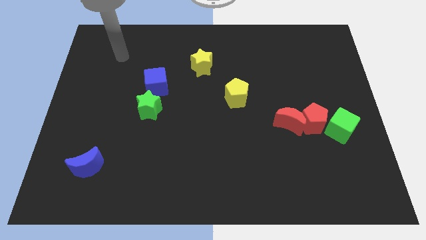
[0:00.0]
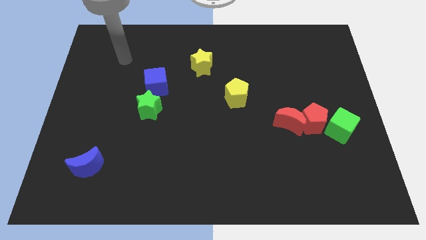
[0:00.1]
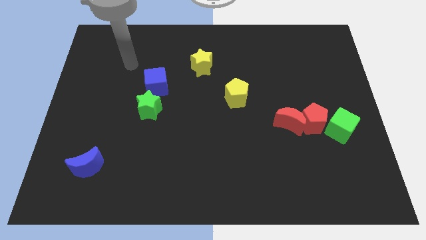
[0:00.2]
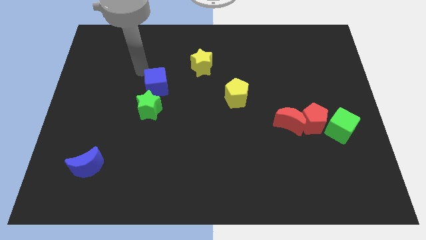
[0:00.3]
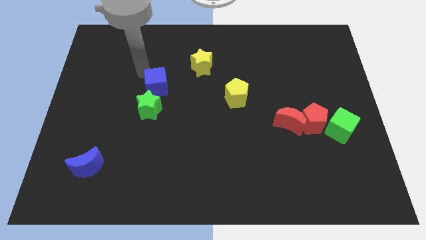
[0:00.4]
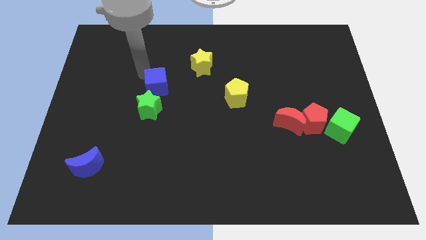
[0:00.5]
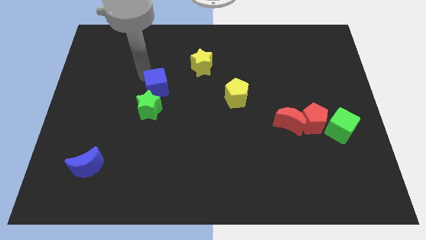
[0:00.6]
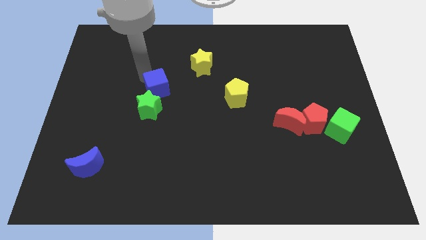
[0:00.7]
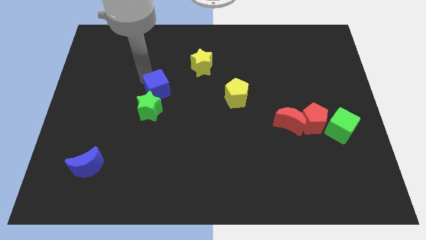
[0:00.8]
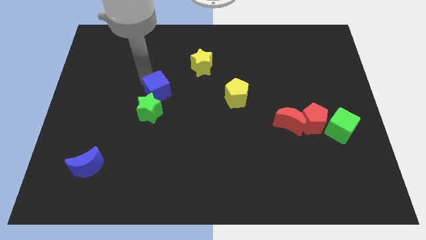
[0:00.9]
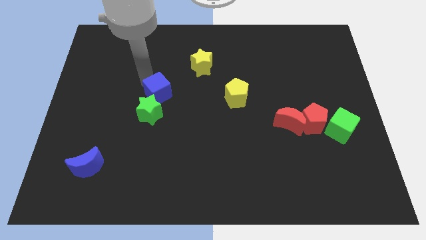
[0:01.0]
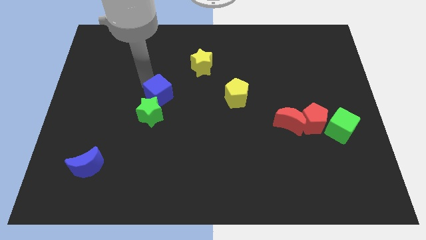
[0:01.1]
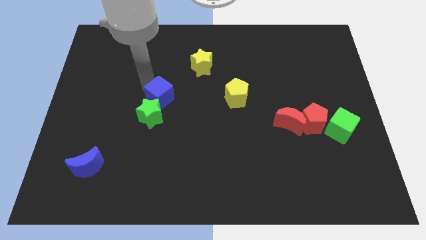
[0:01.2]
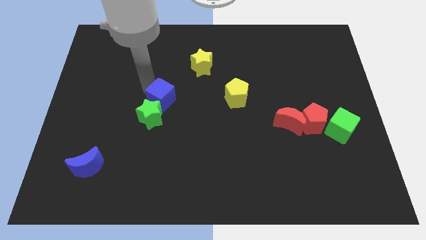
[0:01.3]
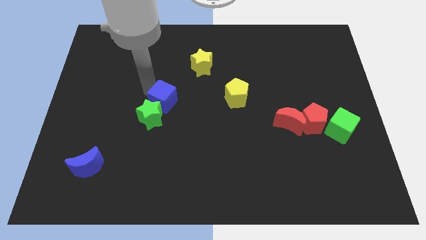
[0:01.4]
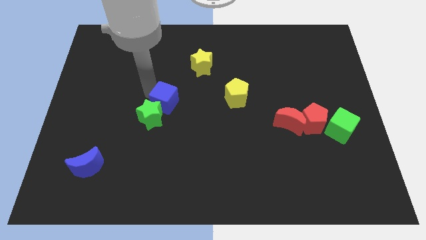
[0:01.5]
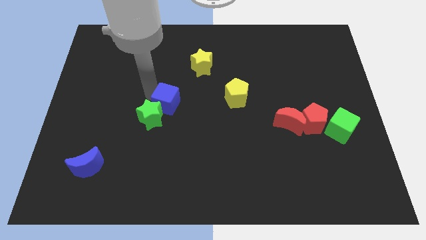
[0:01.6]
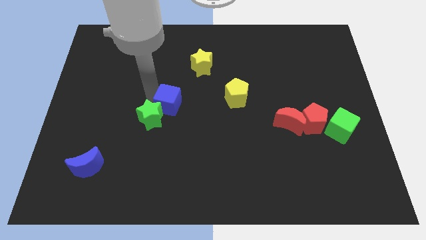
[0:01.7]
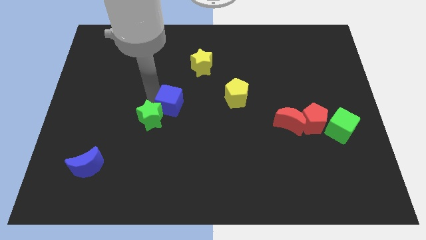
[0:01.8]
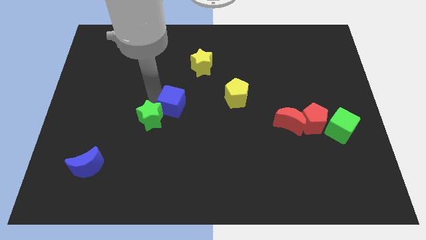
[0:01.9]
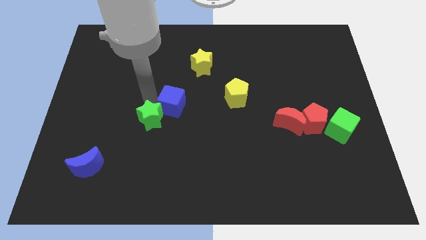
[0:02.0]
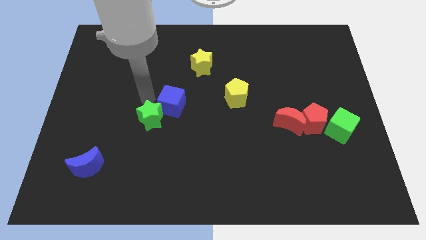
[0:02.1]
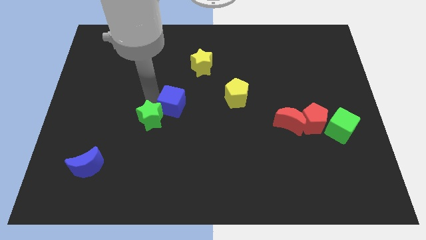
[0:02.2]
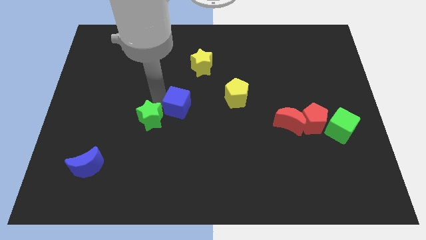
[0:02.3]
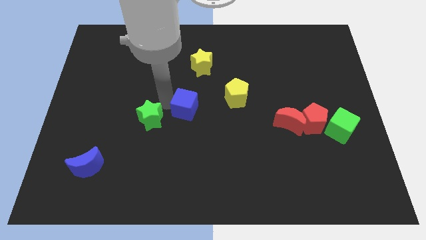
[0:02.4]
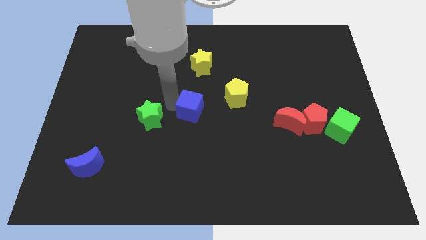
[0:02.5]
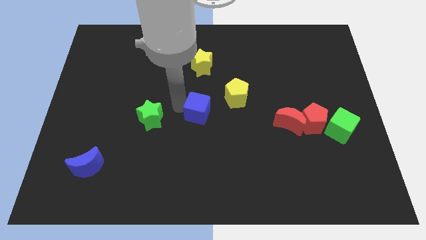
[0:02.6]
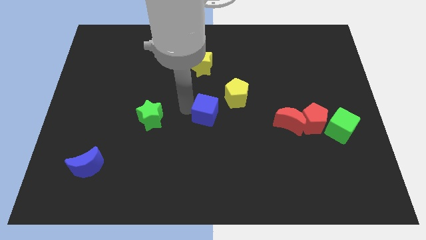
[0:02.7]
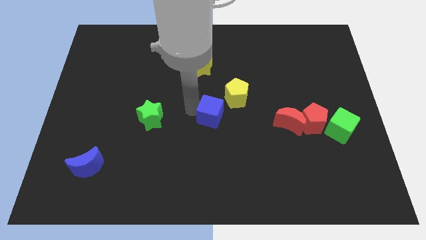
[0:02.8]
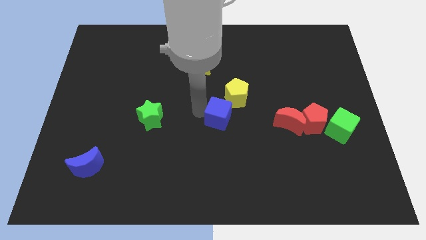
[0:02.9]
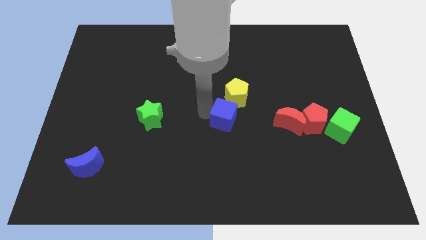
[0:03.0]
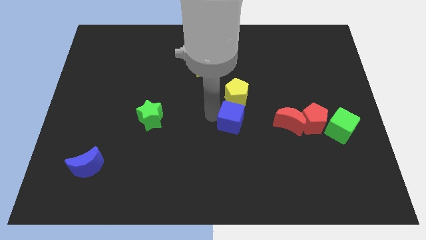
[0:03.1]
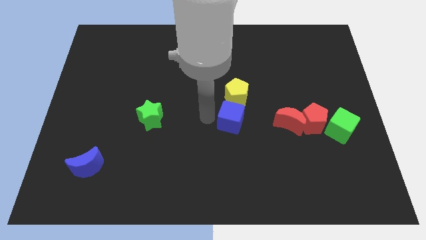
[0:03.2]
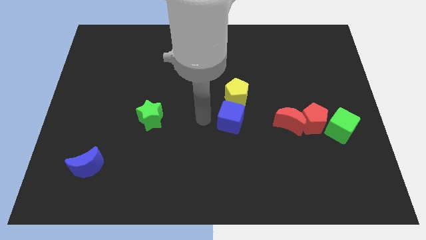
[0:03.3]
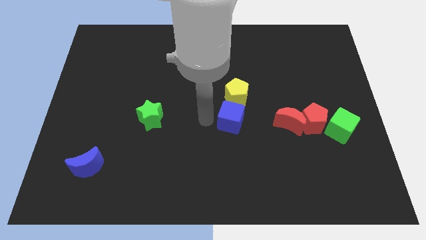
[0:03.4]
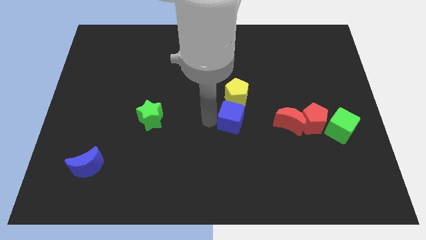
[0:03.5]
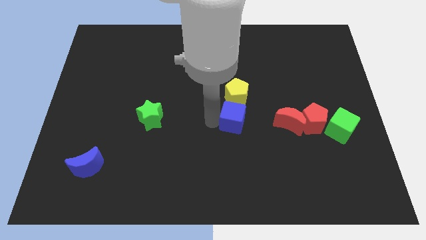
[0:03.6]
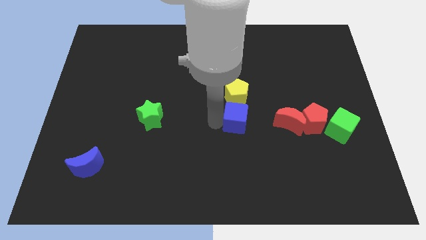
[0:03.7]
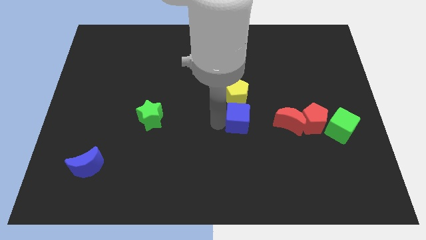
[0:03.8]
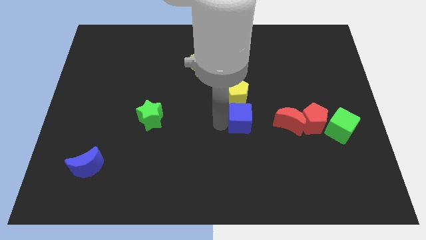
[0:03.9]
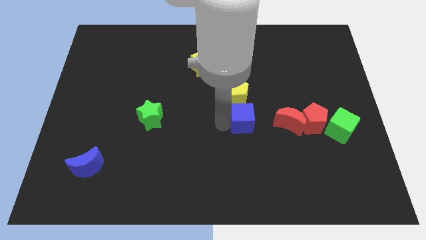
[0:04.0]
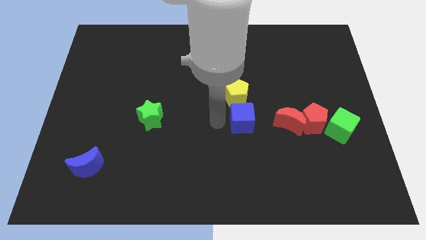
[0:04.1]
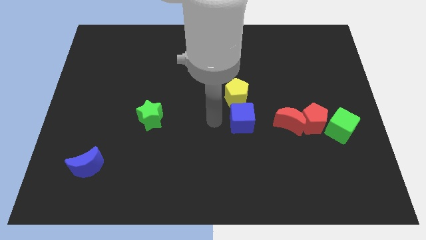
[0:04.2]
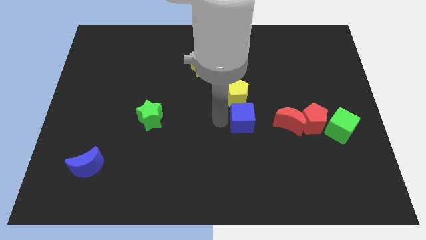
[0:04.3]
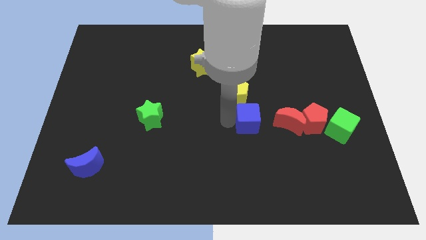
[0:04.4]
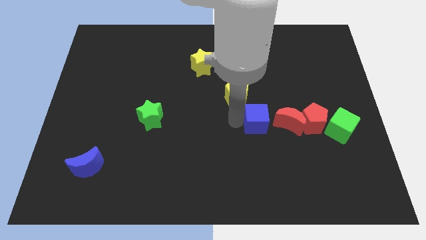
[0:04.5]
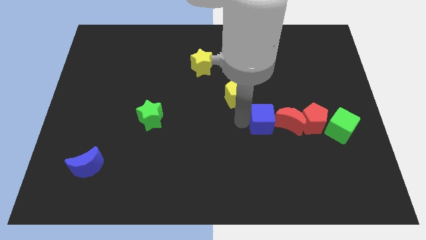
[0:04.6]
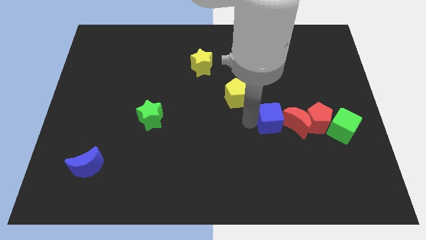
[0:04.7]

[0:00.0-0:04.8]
slide the blue cube to the red moon

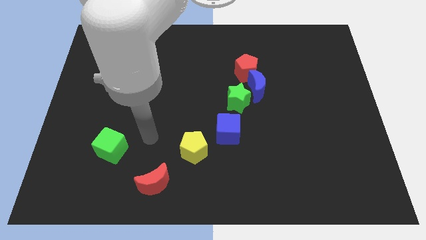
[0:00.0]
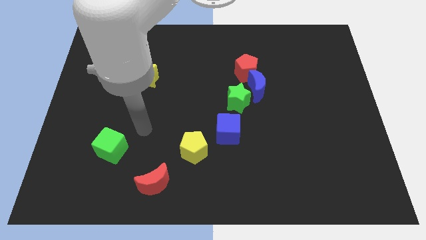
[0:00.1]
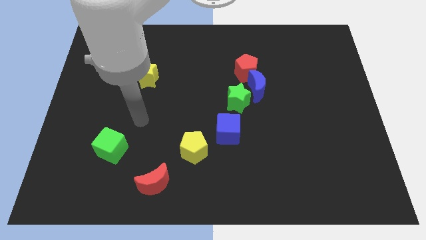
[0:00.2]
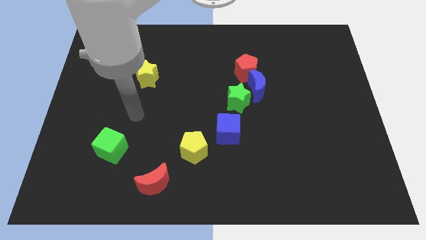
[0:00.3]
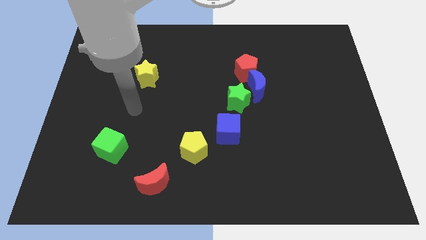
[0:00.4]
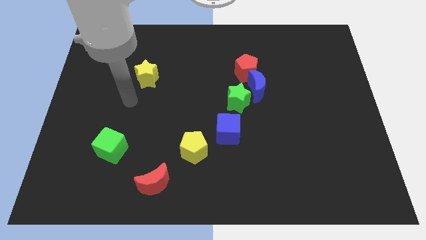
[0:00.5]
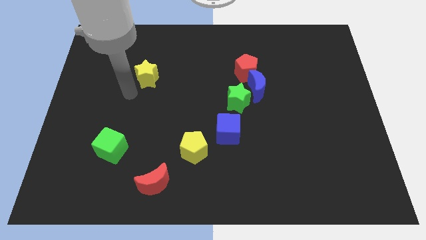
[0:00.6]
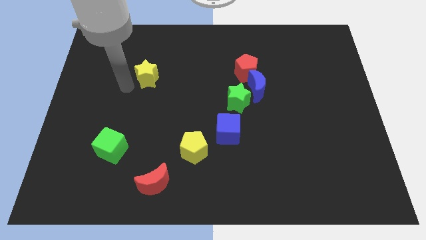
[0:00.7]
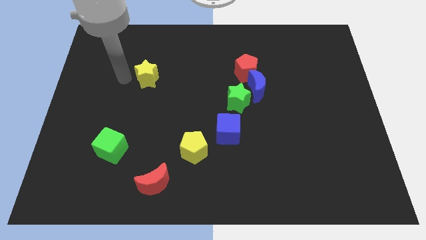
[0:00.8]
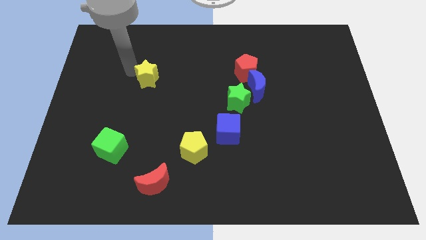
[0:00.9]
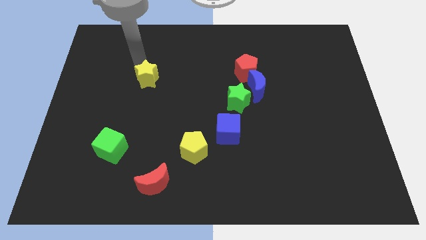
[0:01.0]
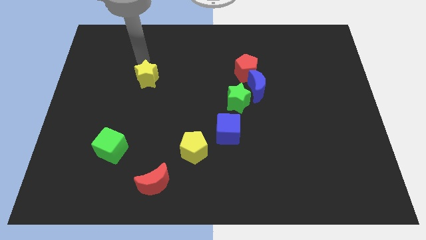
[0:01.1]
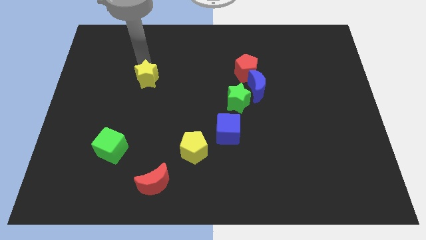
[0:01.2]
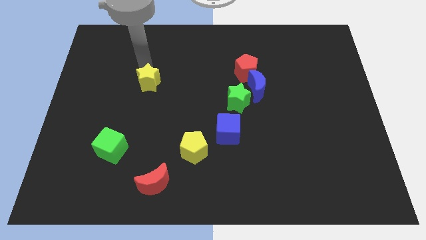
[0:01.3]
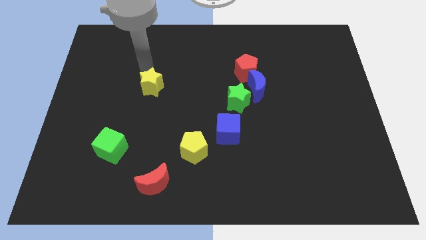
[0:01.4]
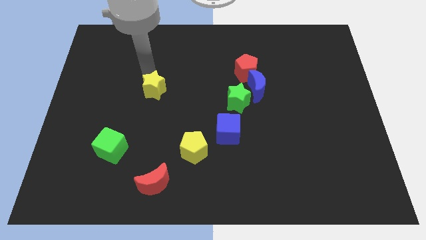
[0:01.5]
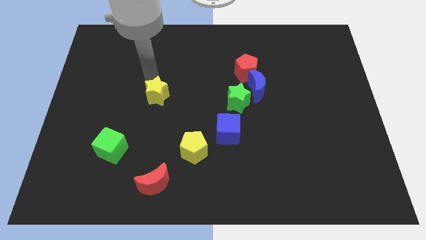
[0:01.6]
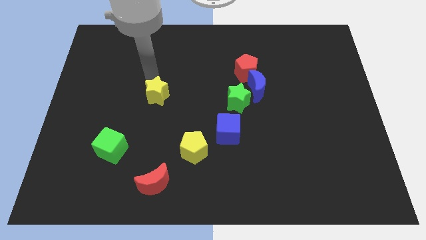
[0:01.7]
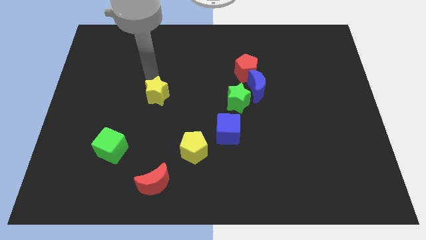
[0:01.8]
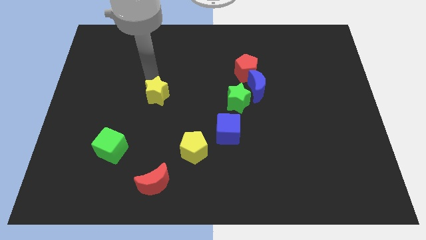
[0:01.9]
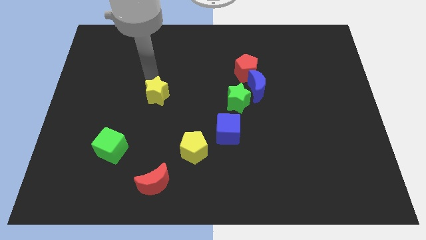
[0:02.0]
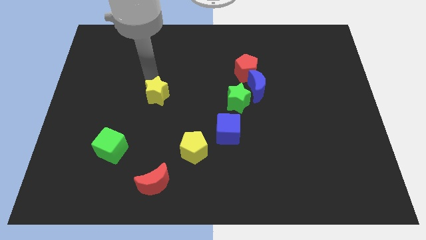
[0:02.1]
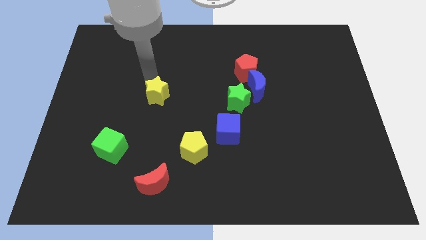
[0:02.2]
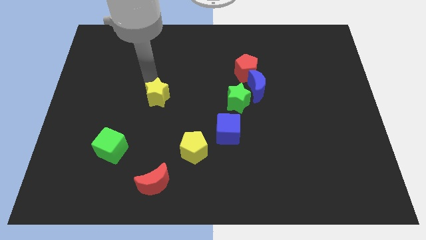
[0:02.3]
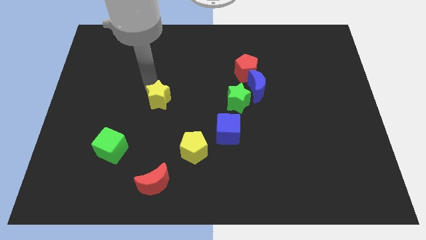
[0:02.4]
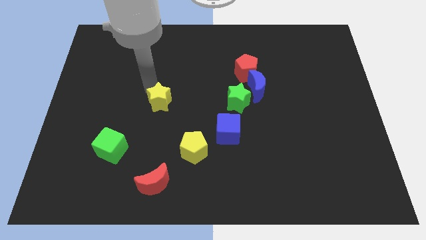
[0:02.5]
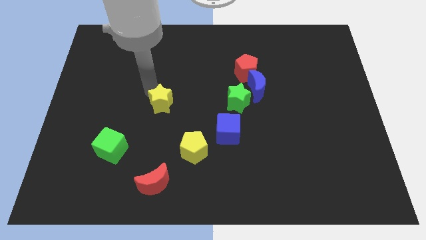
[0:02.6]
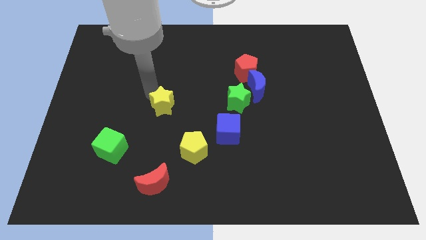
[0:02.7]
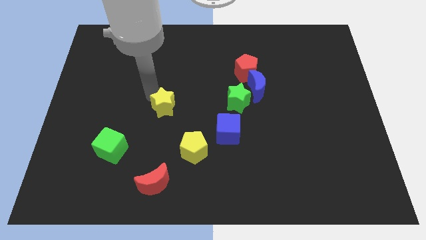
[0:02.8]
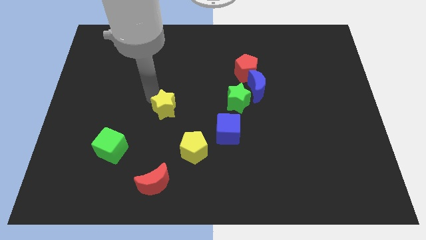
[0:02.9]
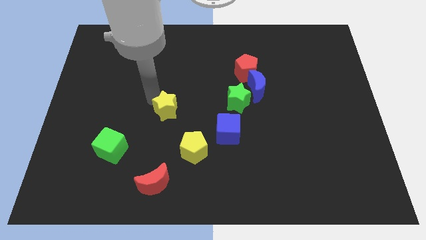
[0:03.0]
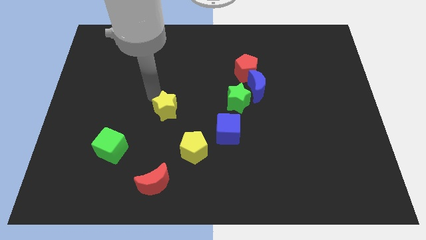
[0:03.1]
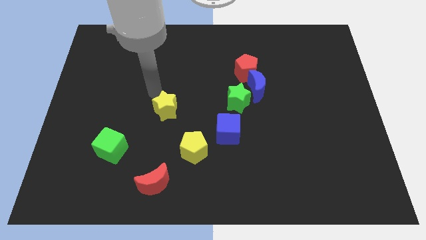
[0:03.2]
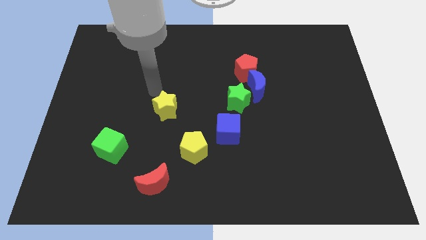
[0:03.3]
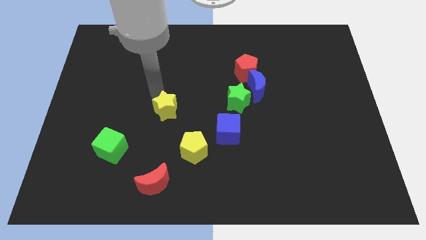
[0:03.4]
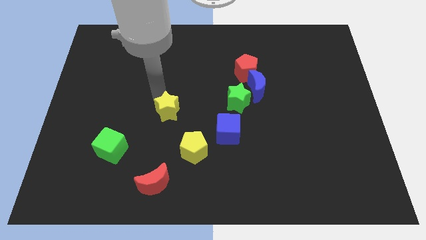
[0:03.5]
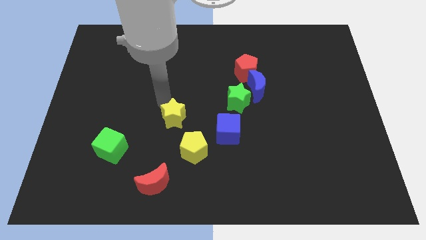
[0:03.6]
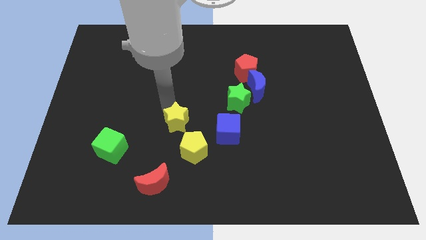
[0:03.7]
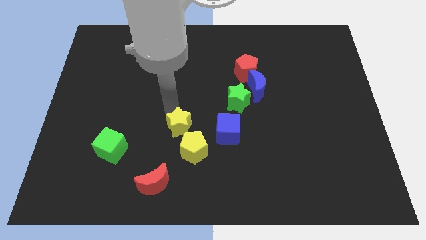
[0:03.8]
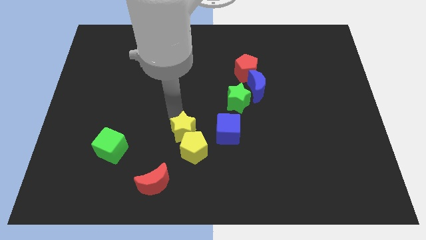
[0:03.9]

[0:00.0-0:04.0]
put the yellow star to the yellow pentagon
